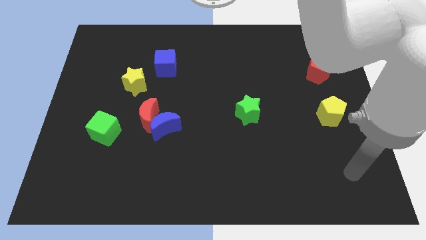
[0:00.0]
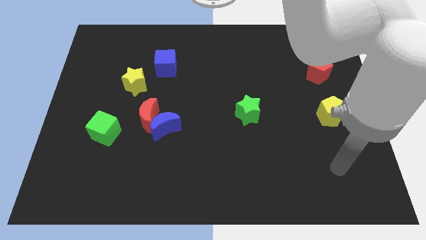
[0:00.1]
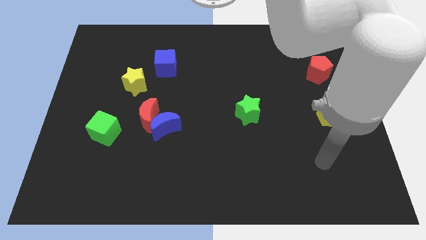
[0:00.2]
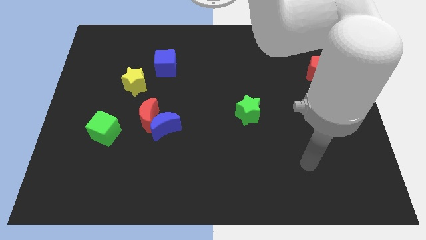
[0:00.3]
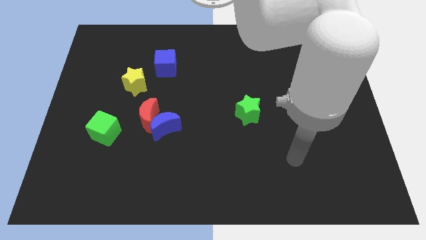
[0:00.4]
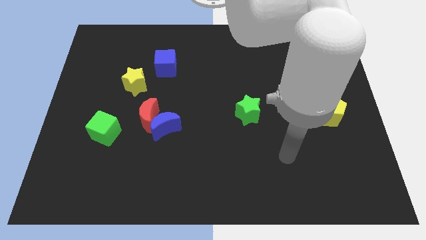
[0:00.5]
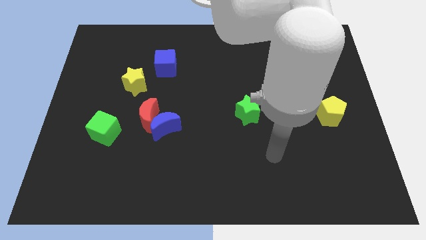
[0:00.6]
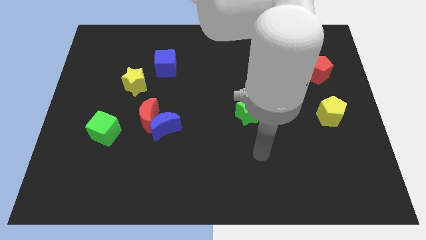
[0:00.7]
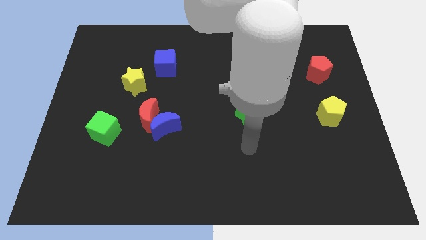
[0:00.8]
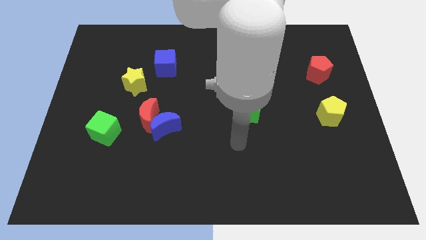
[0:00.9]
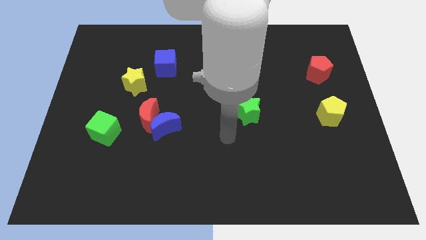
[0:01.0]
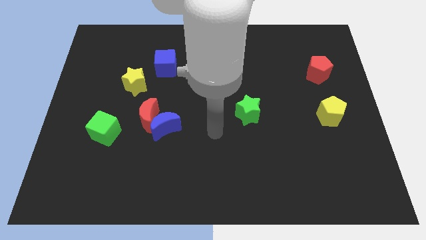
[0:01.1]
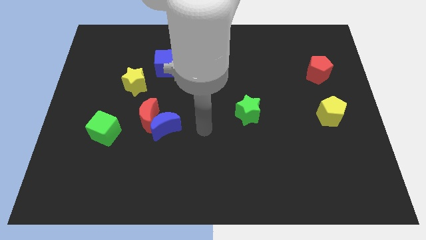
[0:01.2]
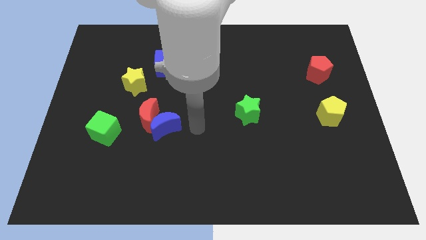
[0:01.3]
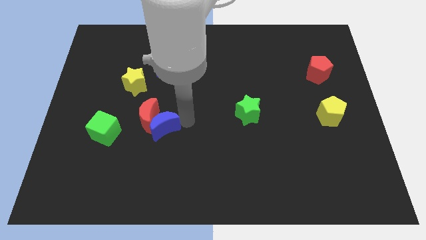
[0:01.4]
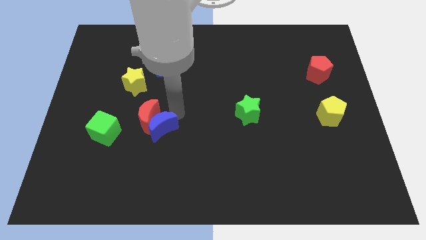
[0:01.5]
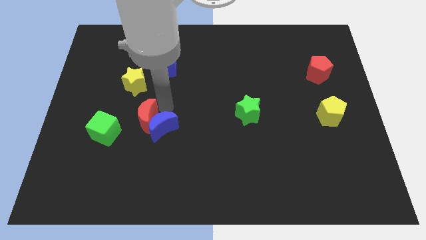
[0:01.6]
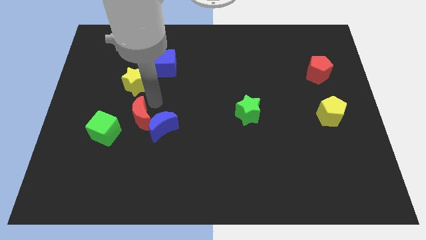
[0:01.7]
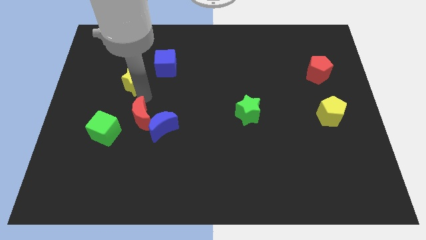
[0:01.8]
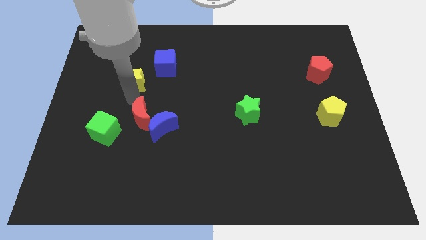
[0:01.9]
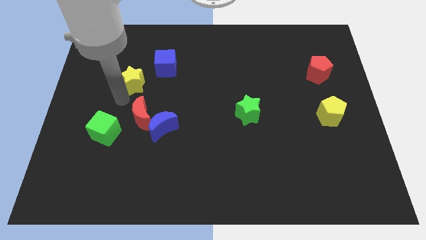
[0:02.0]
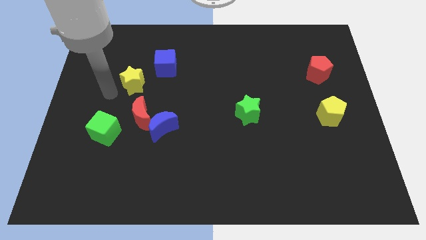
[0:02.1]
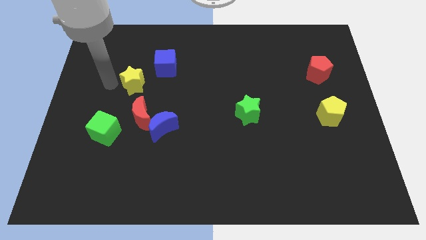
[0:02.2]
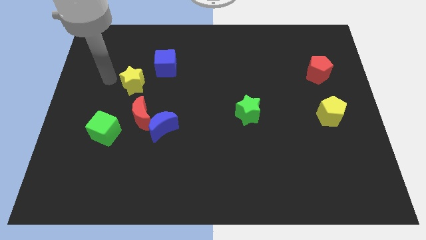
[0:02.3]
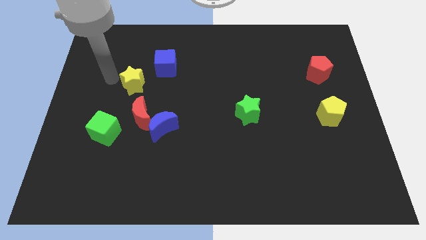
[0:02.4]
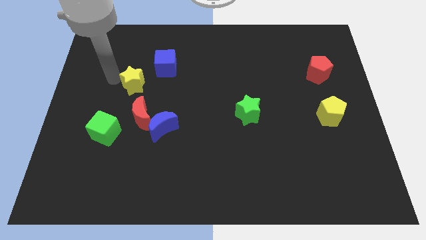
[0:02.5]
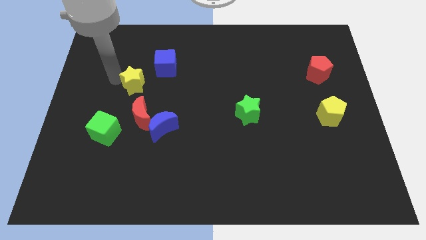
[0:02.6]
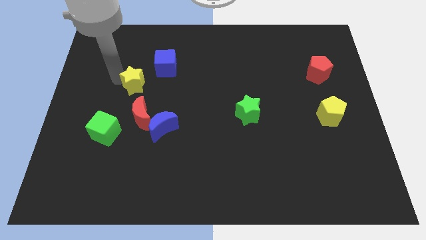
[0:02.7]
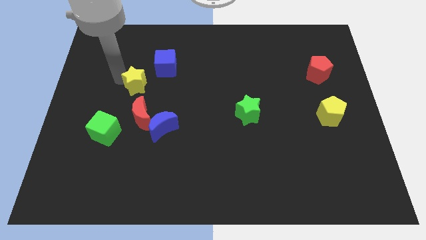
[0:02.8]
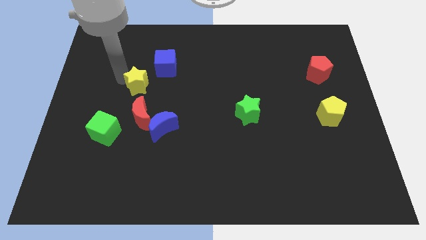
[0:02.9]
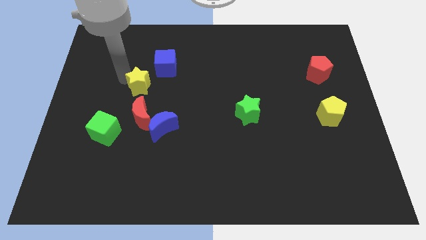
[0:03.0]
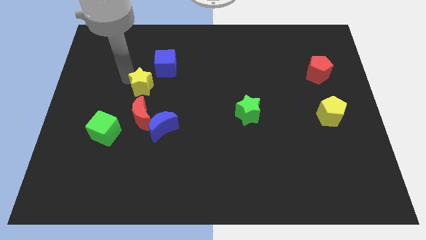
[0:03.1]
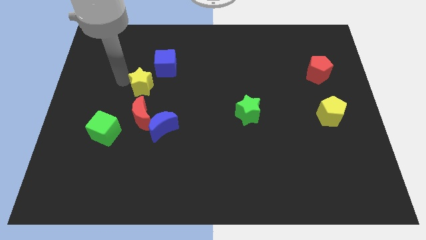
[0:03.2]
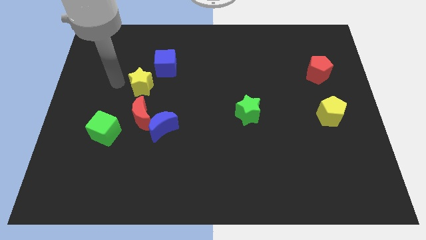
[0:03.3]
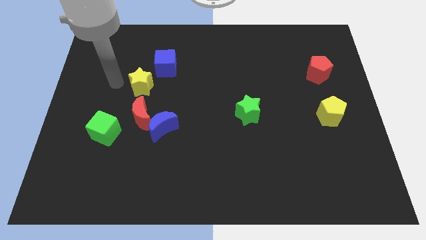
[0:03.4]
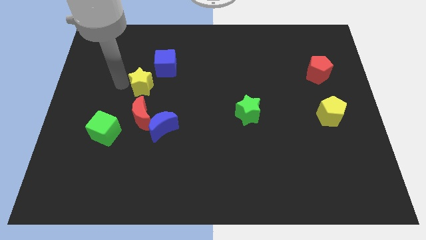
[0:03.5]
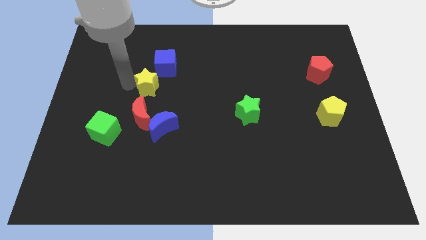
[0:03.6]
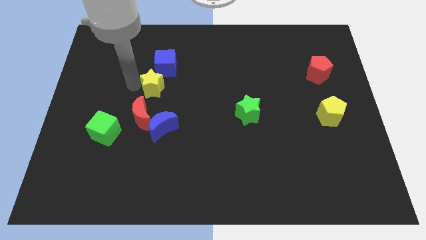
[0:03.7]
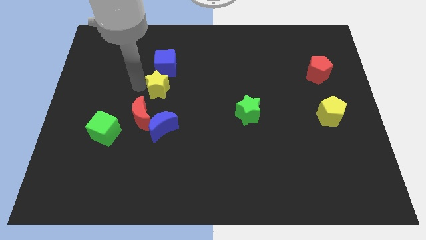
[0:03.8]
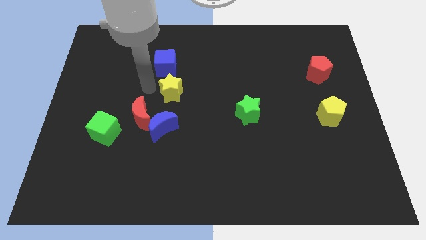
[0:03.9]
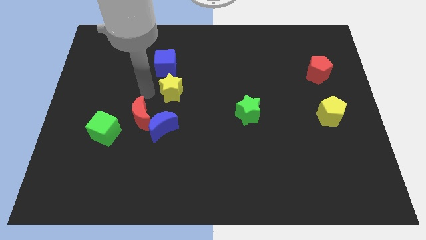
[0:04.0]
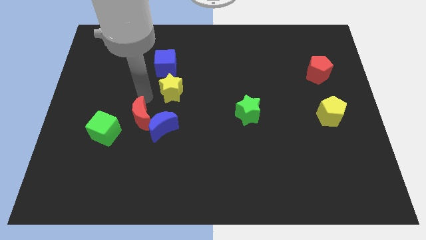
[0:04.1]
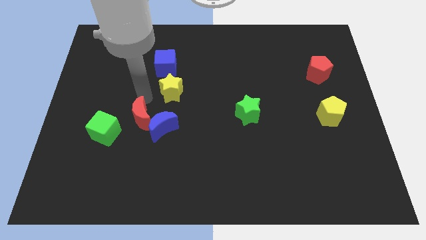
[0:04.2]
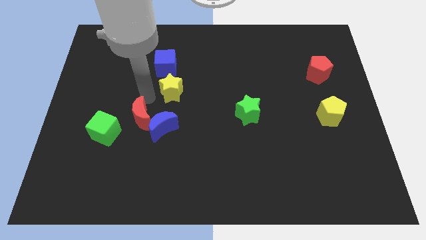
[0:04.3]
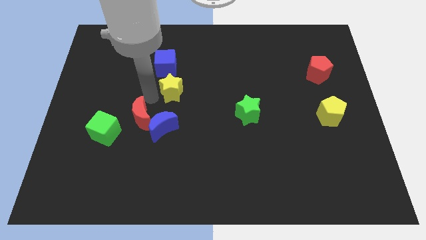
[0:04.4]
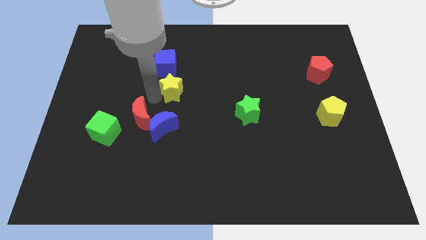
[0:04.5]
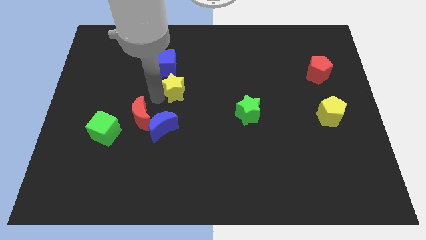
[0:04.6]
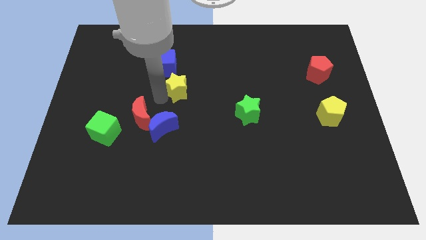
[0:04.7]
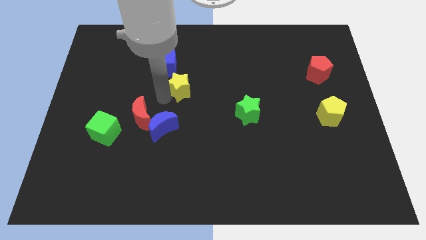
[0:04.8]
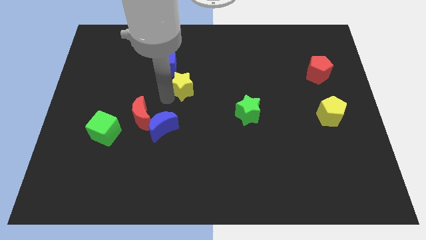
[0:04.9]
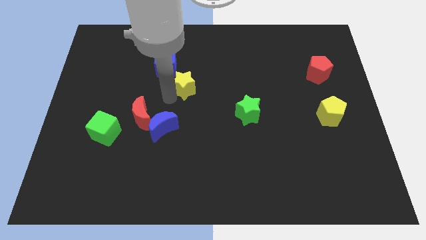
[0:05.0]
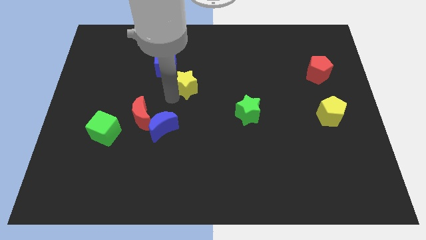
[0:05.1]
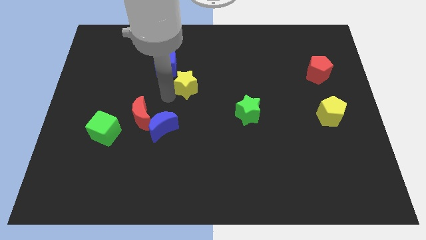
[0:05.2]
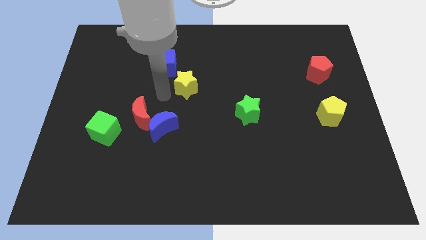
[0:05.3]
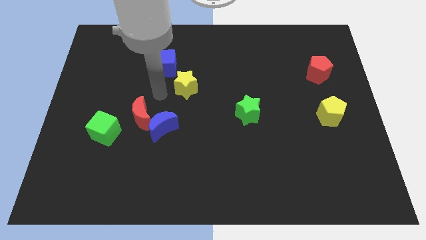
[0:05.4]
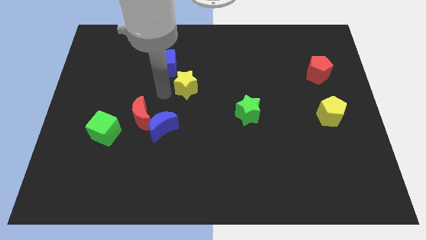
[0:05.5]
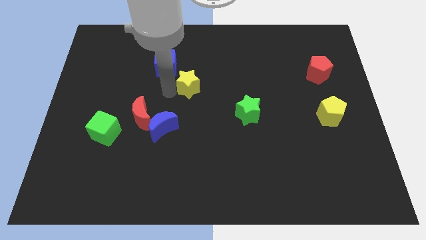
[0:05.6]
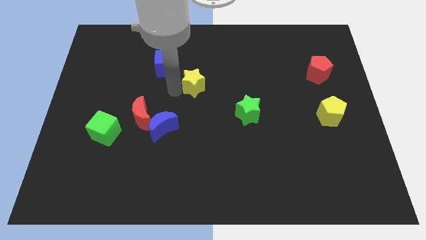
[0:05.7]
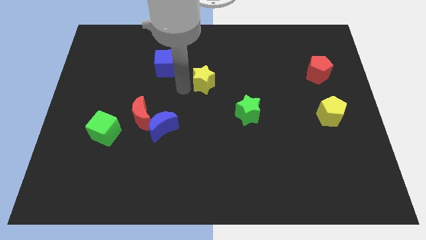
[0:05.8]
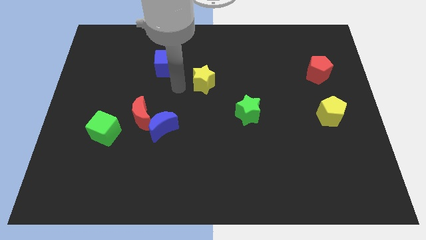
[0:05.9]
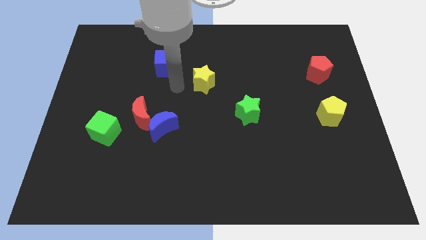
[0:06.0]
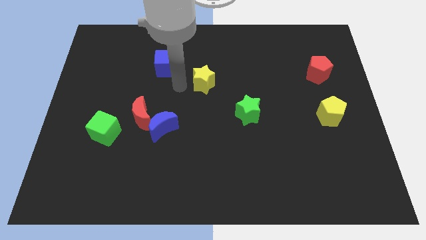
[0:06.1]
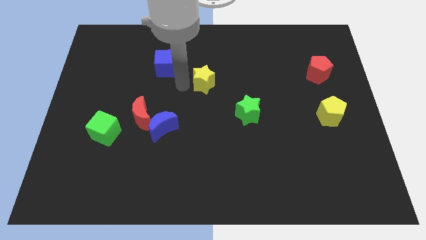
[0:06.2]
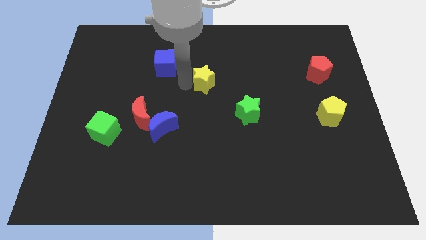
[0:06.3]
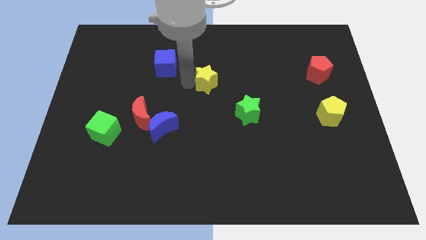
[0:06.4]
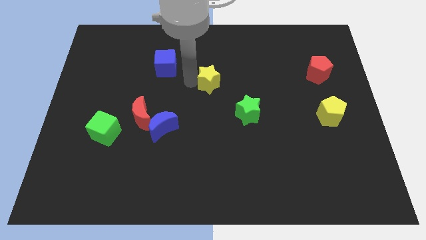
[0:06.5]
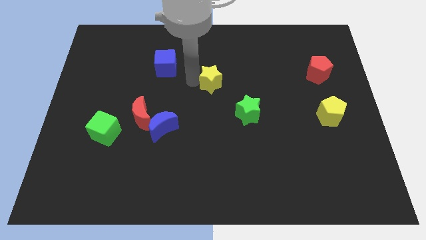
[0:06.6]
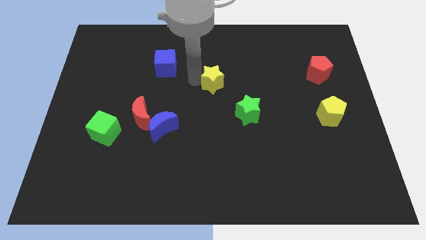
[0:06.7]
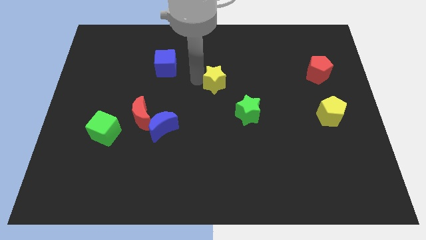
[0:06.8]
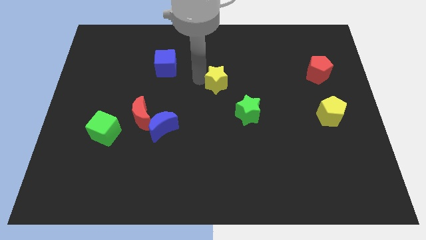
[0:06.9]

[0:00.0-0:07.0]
move the yellow star right

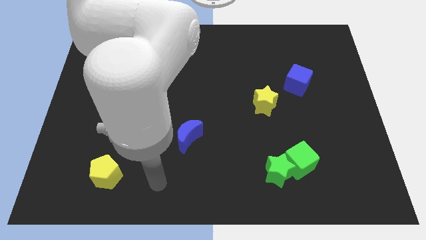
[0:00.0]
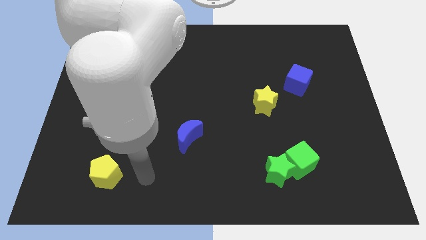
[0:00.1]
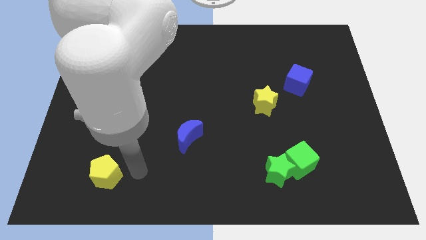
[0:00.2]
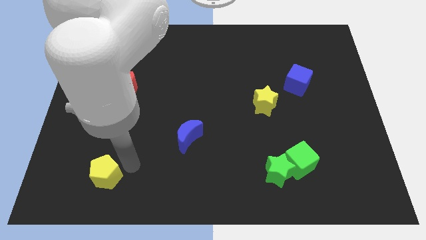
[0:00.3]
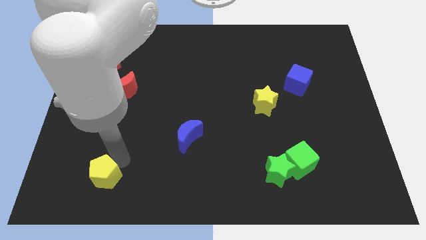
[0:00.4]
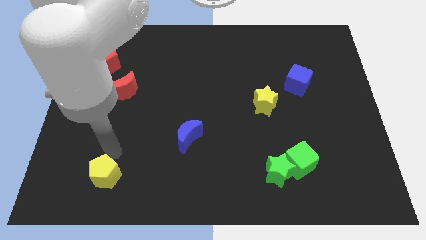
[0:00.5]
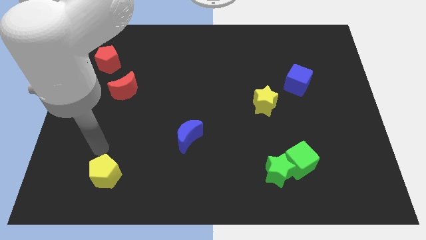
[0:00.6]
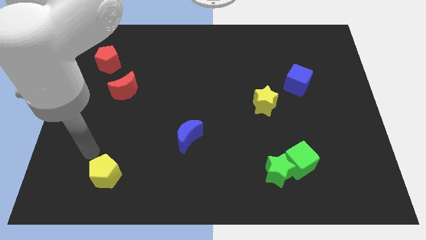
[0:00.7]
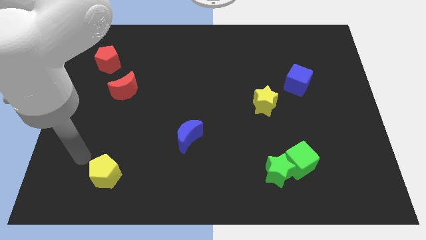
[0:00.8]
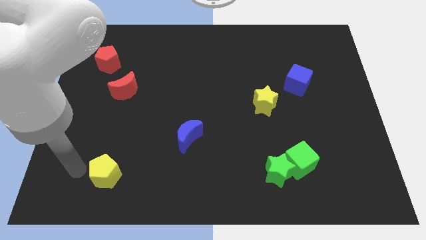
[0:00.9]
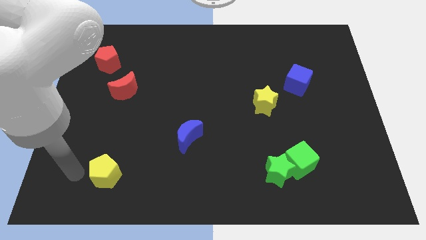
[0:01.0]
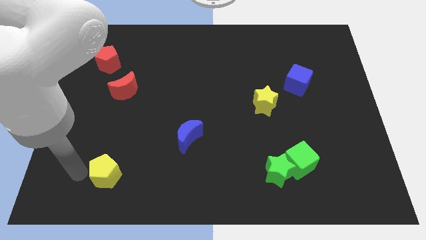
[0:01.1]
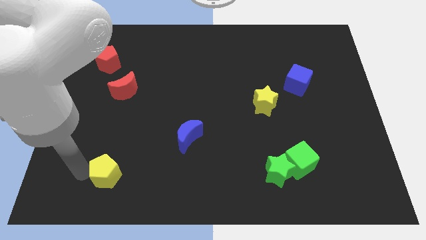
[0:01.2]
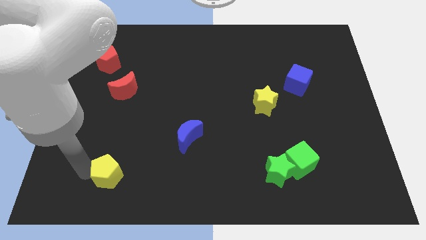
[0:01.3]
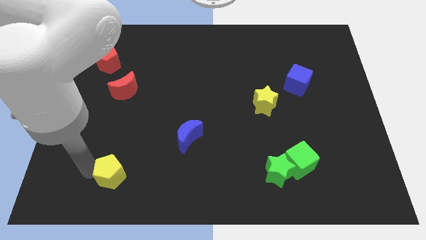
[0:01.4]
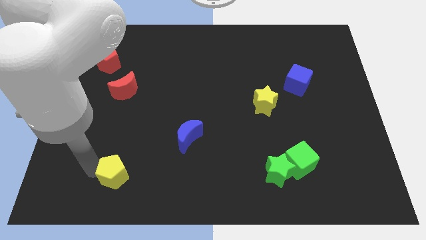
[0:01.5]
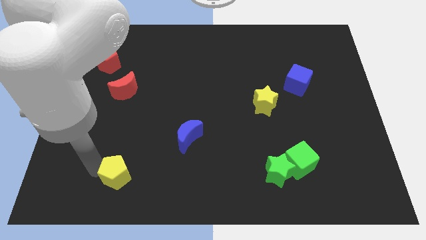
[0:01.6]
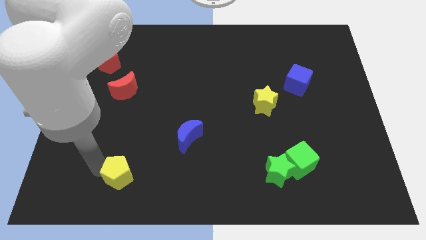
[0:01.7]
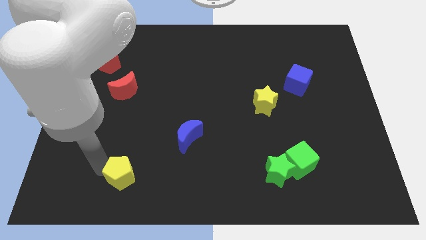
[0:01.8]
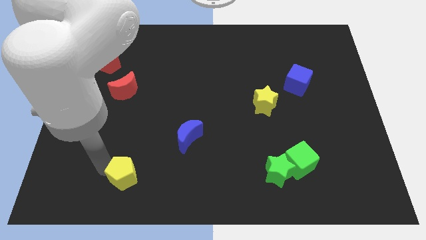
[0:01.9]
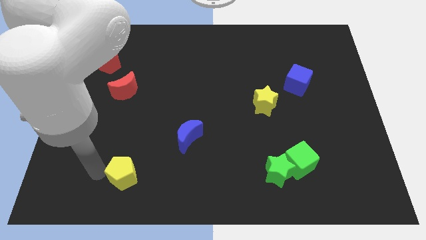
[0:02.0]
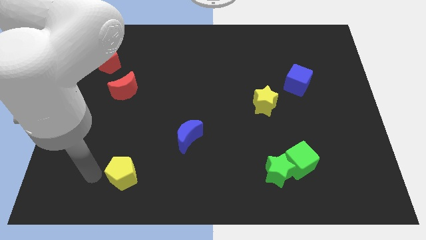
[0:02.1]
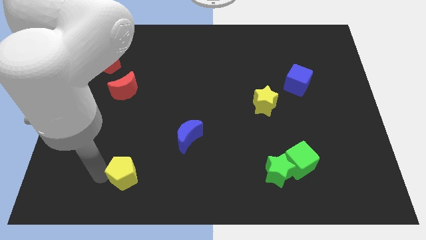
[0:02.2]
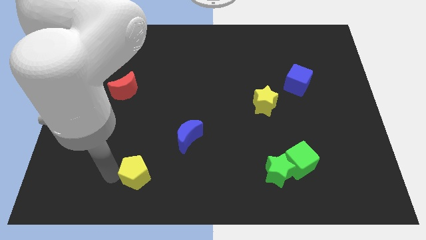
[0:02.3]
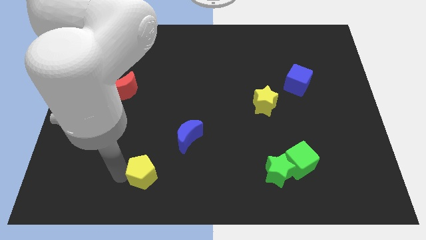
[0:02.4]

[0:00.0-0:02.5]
move the yellow pentagon to the right slightly
